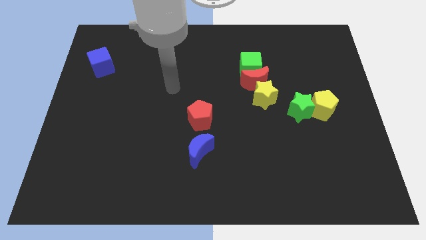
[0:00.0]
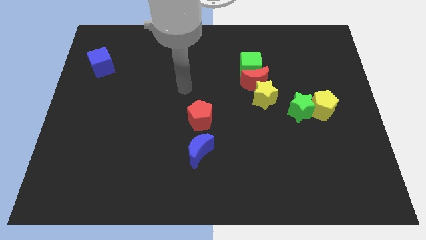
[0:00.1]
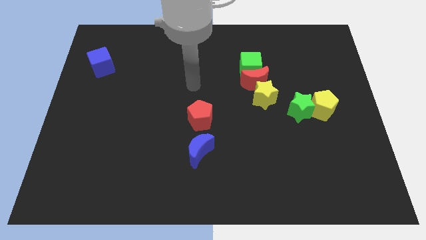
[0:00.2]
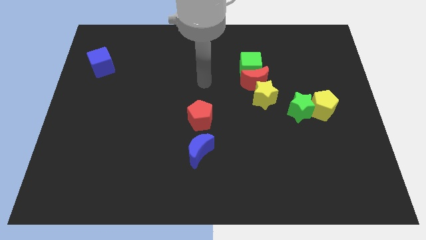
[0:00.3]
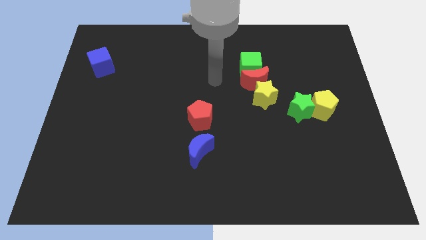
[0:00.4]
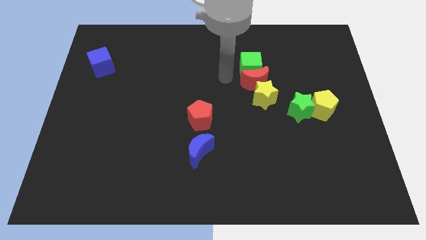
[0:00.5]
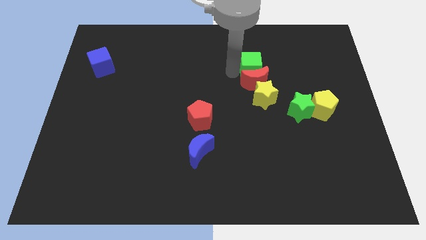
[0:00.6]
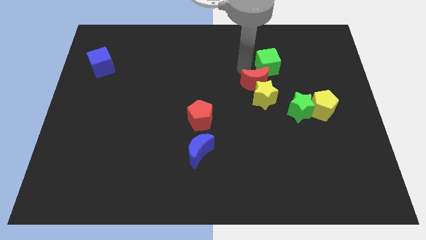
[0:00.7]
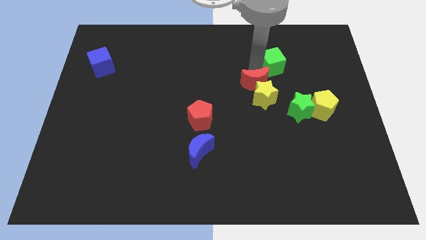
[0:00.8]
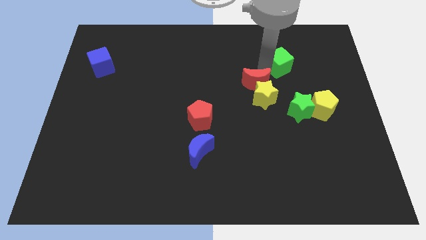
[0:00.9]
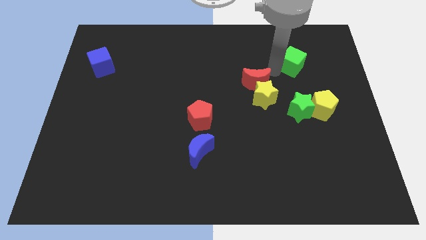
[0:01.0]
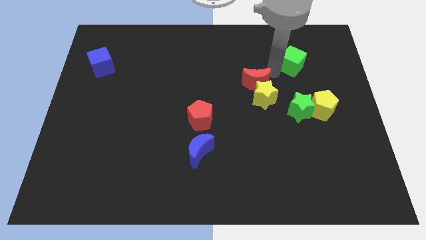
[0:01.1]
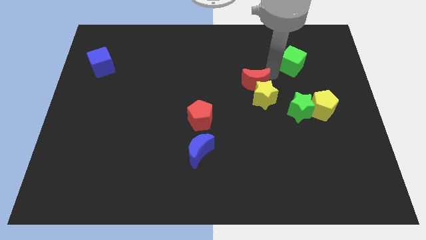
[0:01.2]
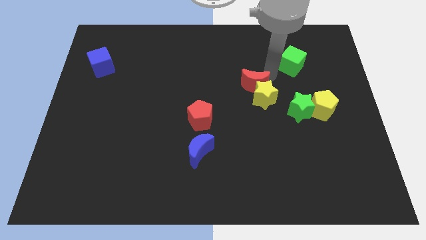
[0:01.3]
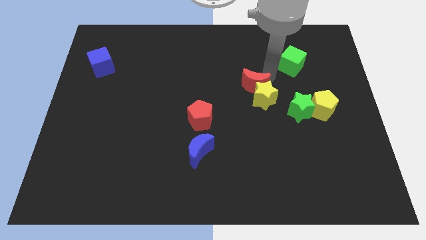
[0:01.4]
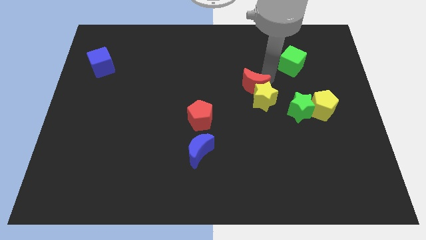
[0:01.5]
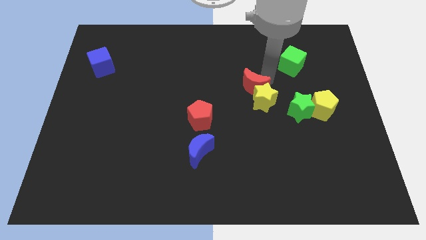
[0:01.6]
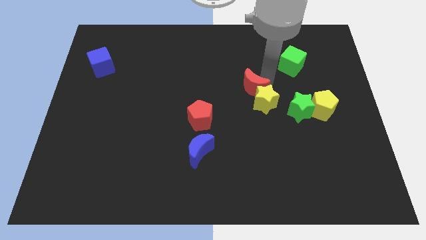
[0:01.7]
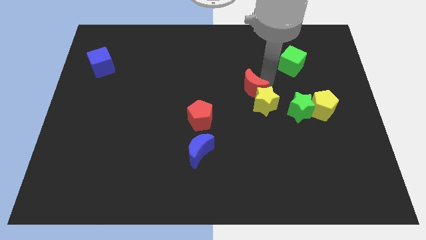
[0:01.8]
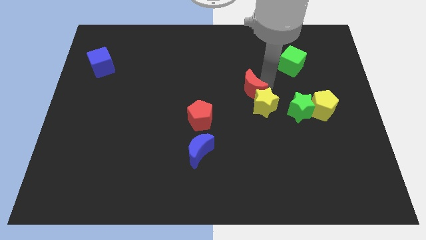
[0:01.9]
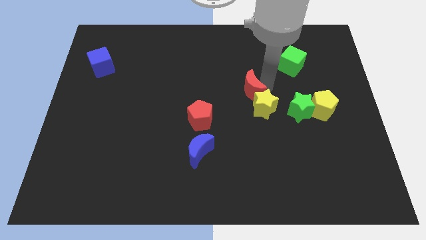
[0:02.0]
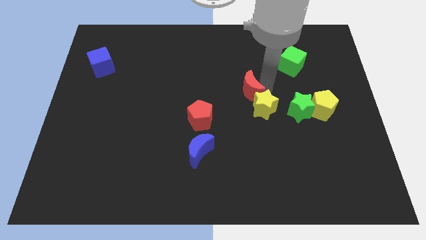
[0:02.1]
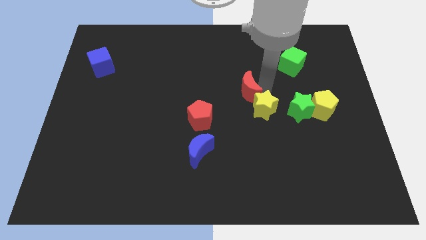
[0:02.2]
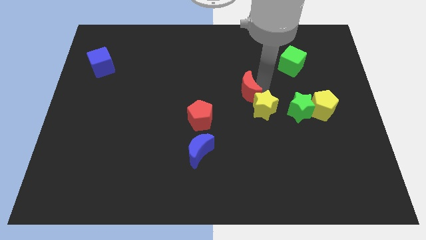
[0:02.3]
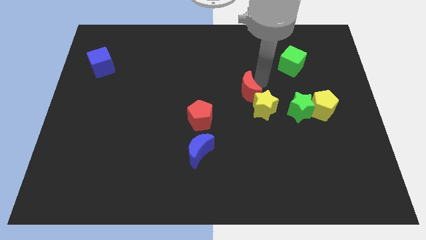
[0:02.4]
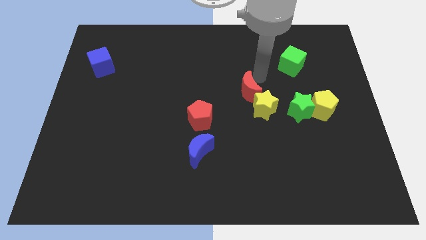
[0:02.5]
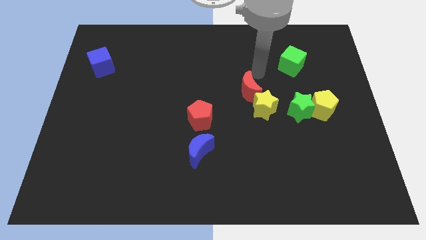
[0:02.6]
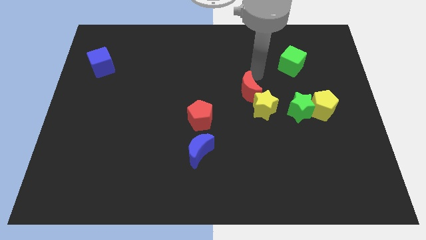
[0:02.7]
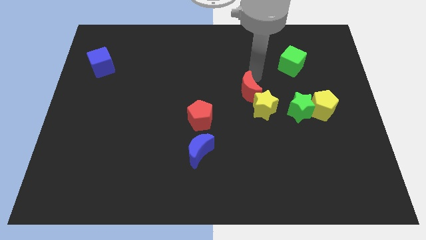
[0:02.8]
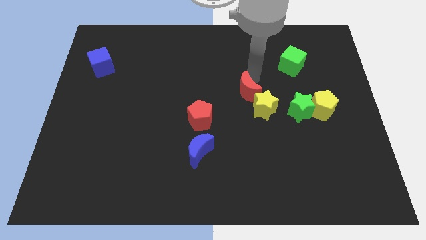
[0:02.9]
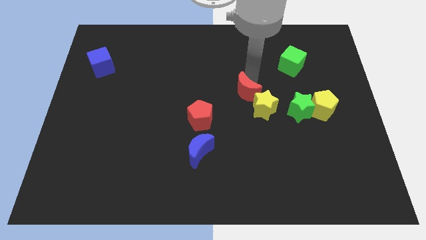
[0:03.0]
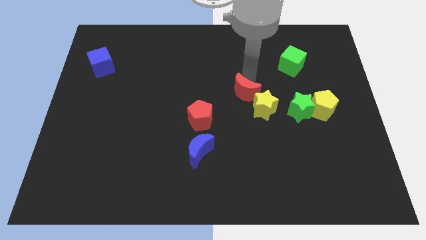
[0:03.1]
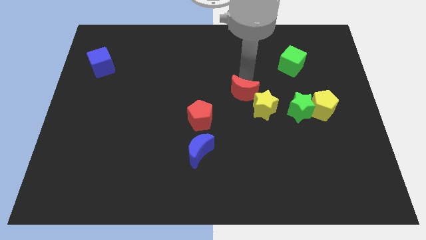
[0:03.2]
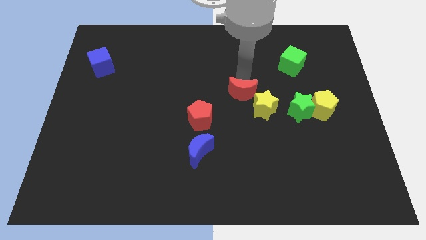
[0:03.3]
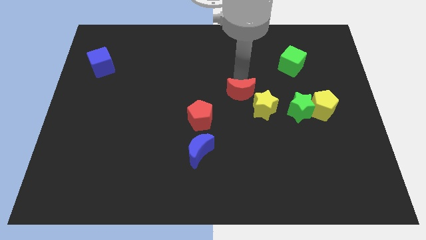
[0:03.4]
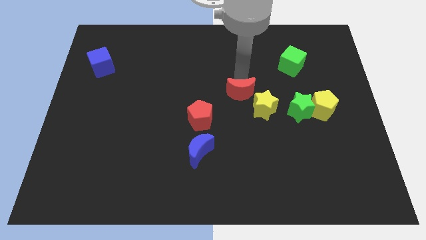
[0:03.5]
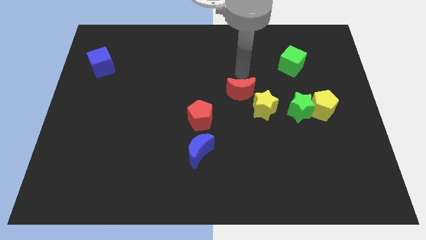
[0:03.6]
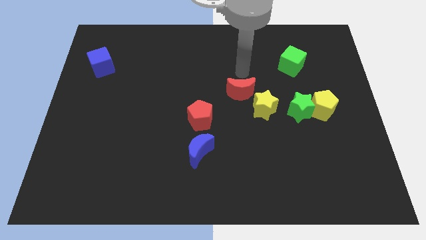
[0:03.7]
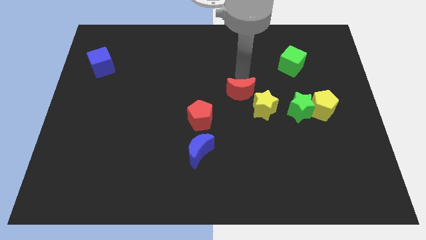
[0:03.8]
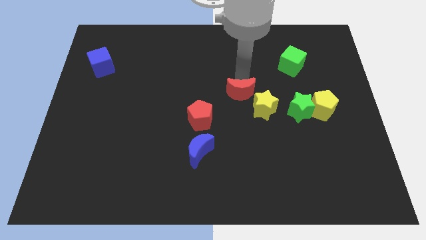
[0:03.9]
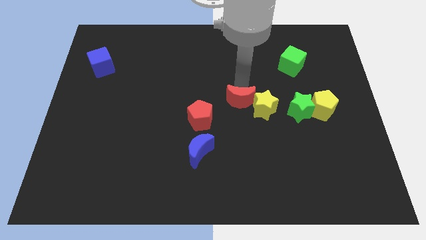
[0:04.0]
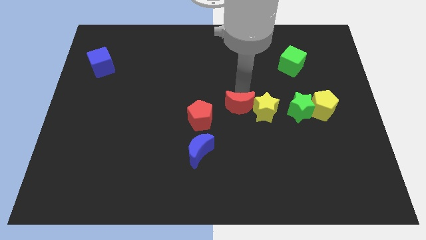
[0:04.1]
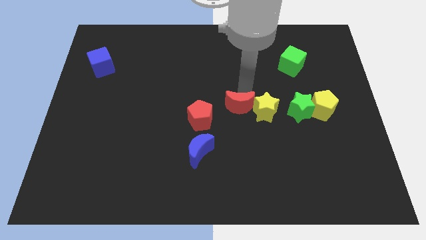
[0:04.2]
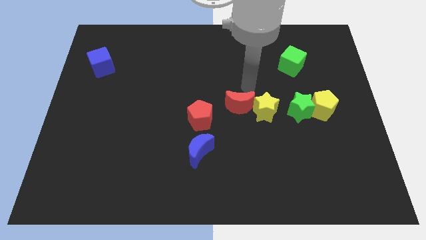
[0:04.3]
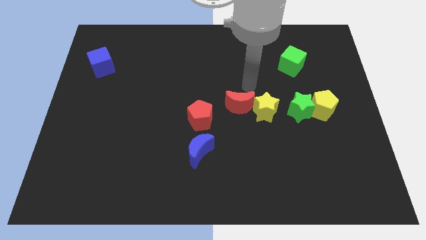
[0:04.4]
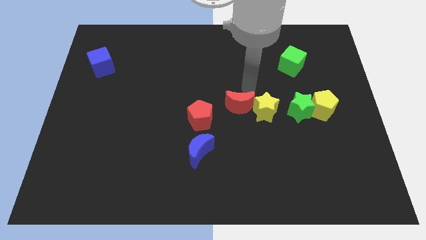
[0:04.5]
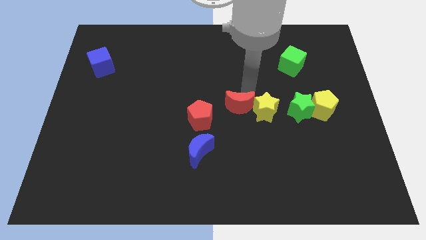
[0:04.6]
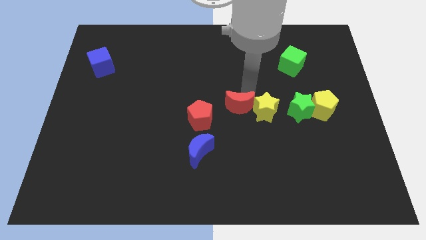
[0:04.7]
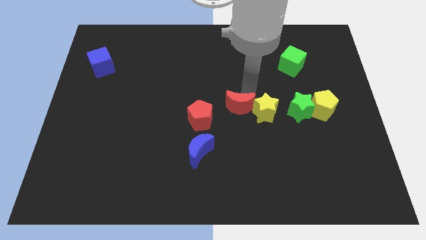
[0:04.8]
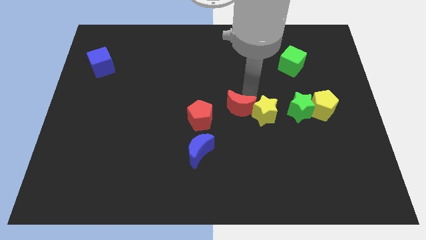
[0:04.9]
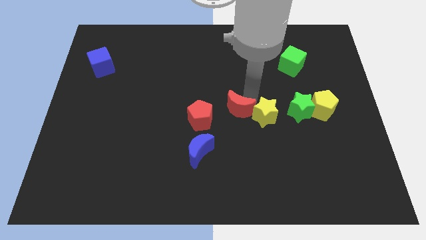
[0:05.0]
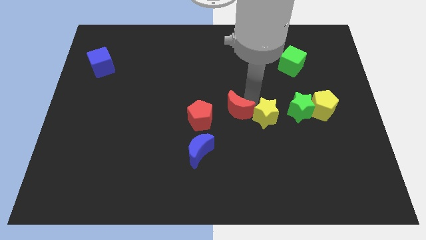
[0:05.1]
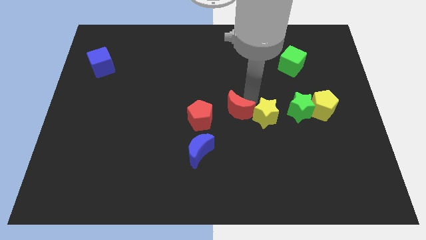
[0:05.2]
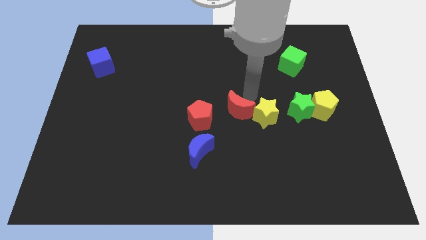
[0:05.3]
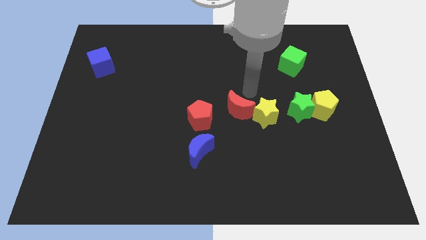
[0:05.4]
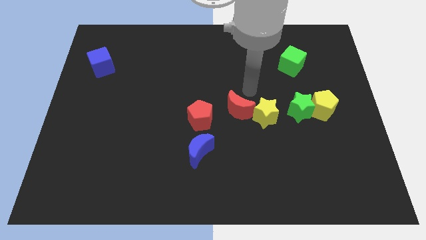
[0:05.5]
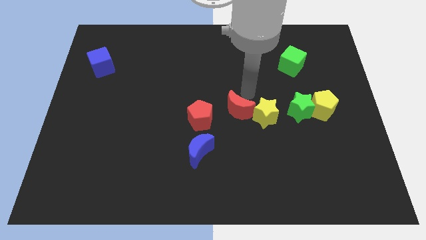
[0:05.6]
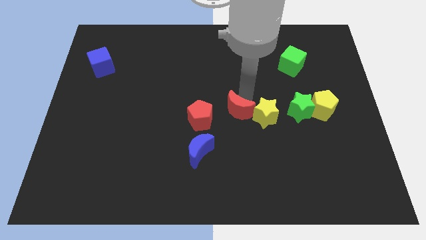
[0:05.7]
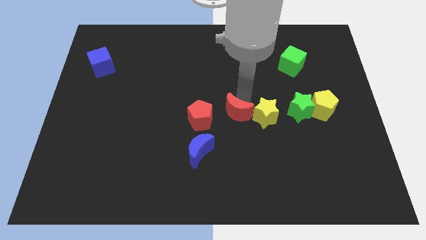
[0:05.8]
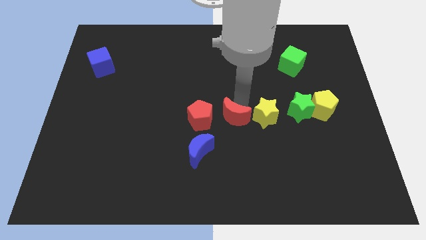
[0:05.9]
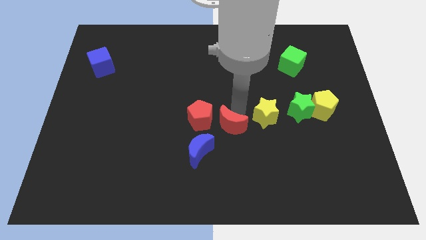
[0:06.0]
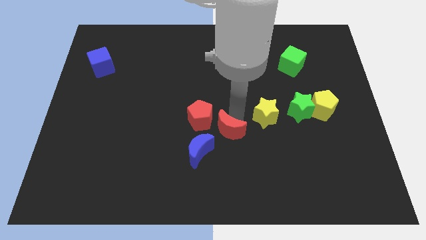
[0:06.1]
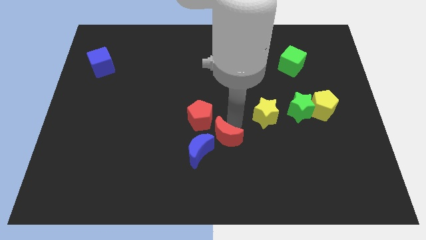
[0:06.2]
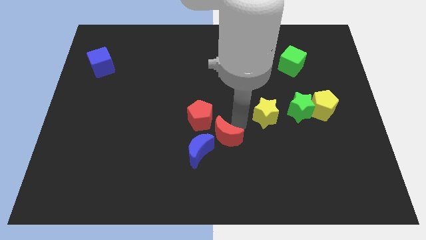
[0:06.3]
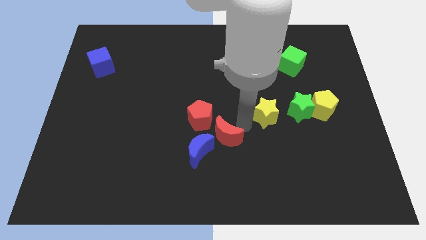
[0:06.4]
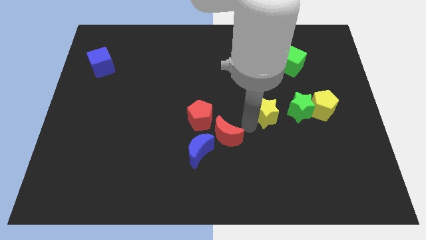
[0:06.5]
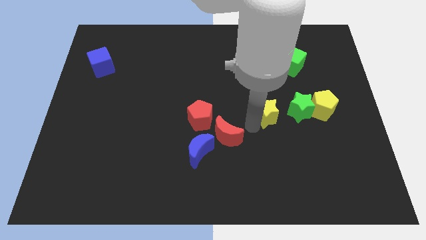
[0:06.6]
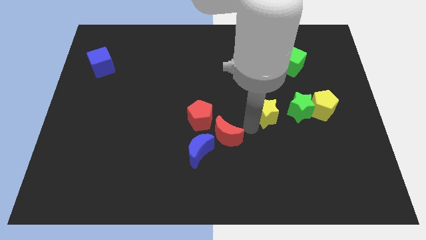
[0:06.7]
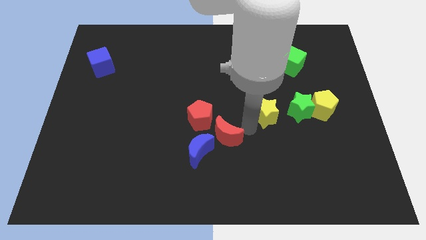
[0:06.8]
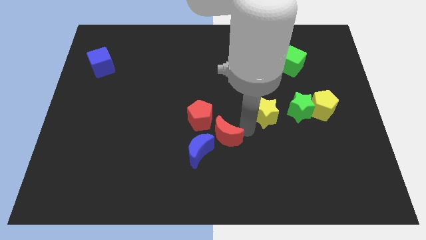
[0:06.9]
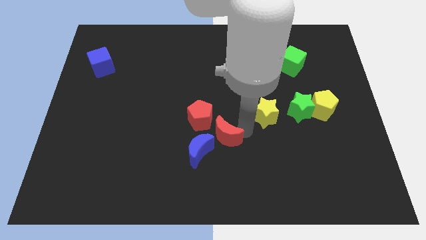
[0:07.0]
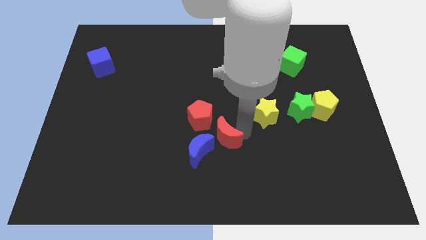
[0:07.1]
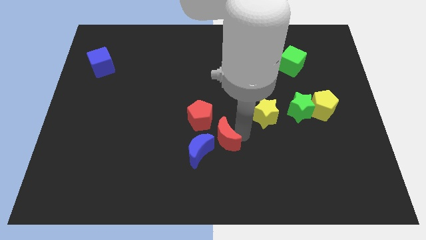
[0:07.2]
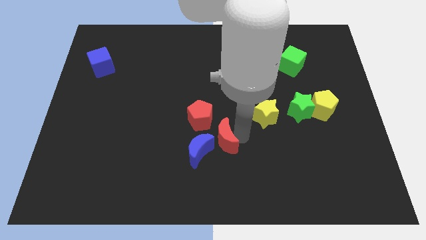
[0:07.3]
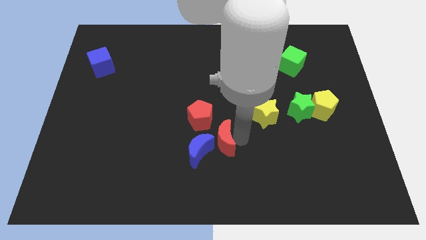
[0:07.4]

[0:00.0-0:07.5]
slide the red moon towards the blue moon

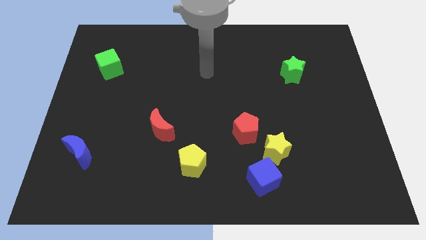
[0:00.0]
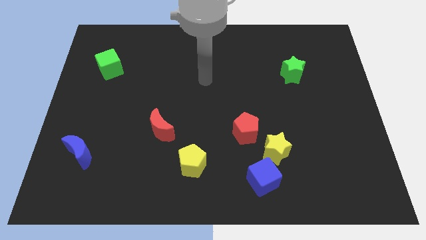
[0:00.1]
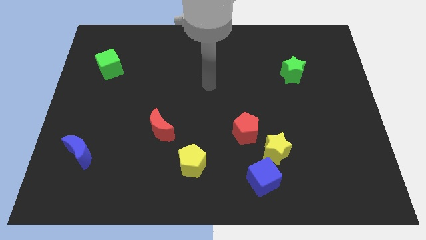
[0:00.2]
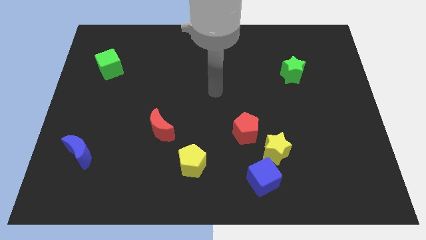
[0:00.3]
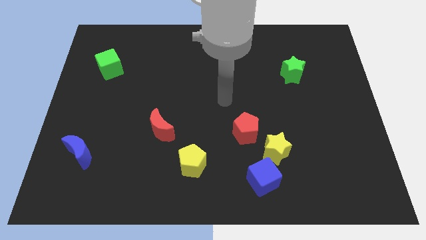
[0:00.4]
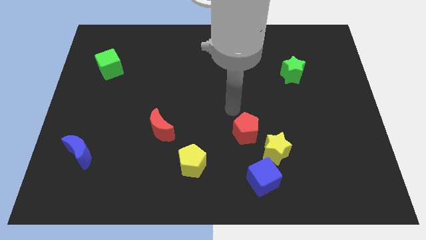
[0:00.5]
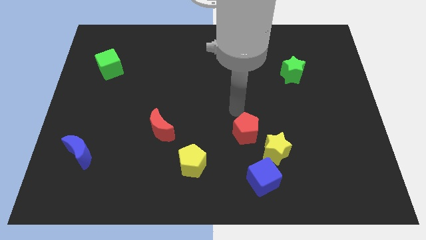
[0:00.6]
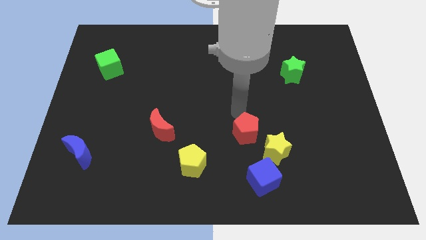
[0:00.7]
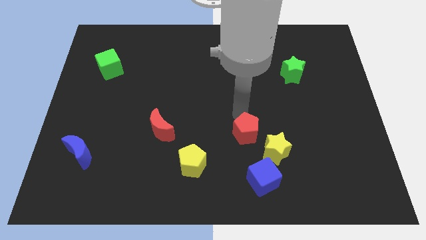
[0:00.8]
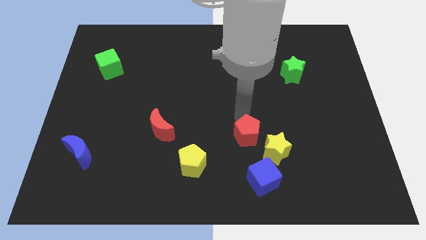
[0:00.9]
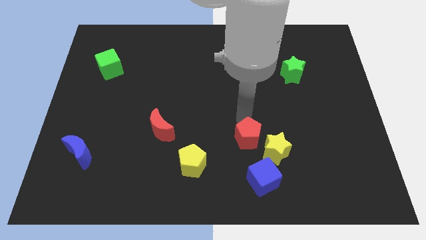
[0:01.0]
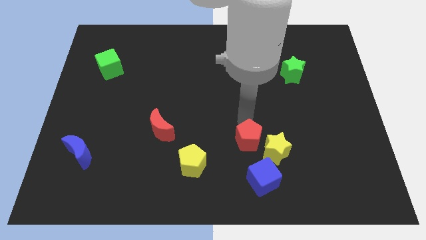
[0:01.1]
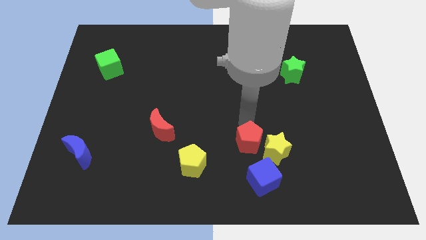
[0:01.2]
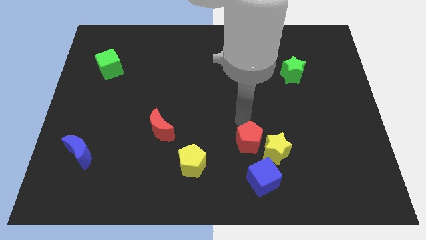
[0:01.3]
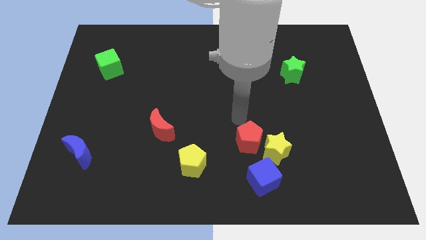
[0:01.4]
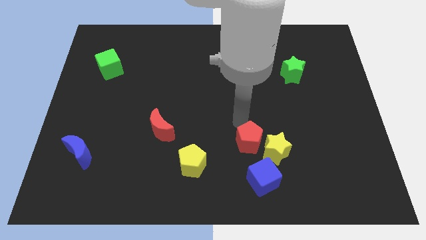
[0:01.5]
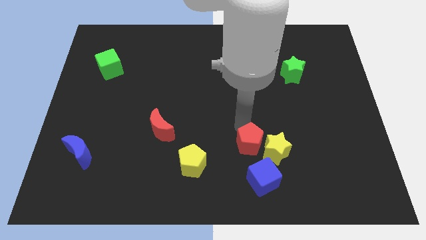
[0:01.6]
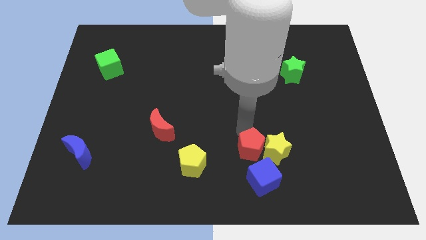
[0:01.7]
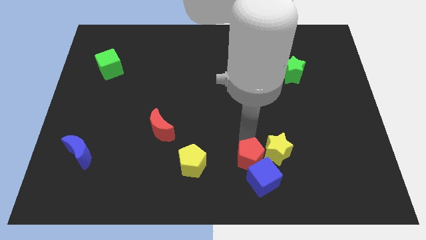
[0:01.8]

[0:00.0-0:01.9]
slide the red pentagon to the blue cube
